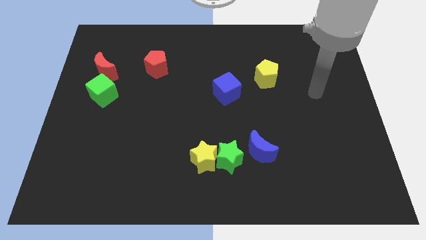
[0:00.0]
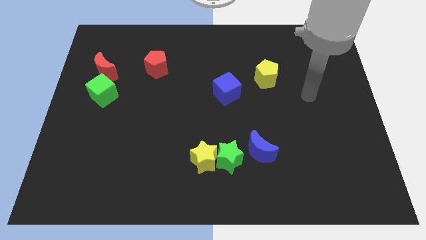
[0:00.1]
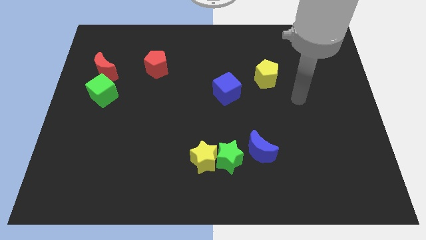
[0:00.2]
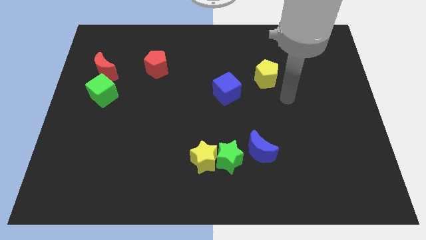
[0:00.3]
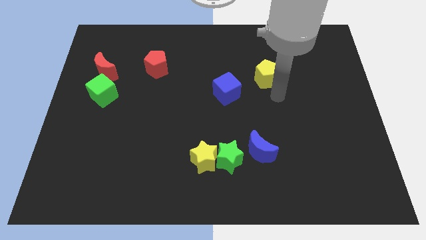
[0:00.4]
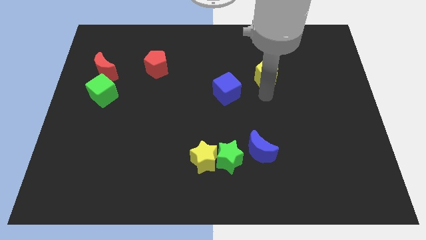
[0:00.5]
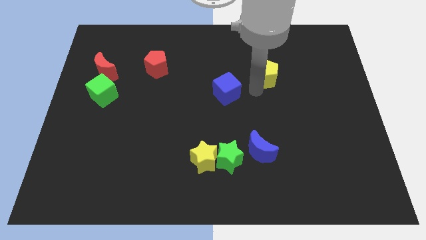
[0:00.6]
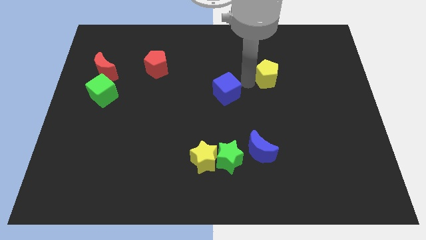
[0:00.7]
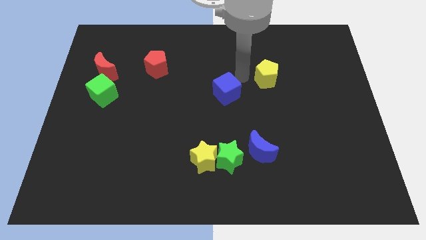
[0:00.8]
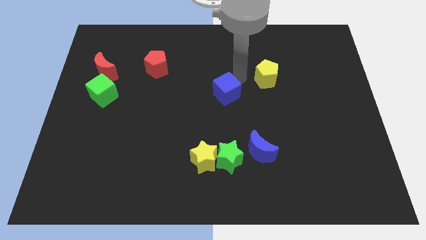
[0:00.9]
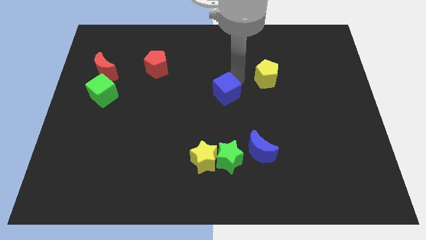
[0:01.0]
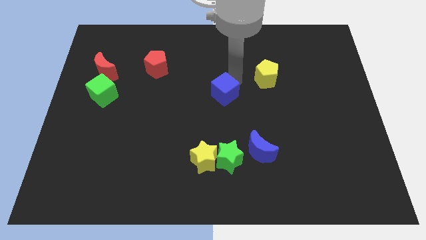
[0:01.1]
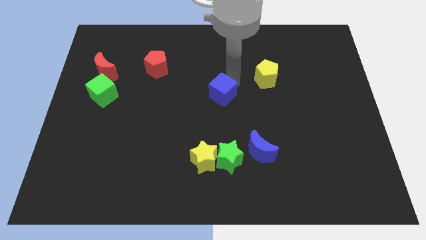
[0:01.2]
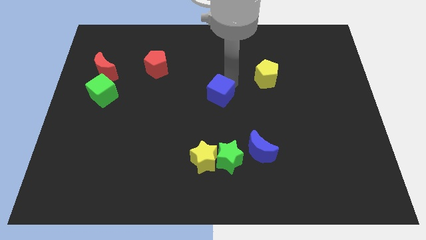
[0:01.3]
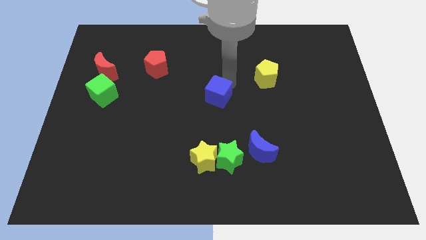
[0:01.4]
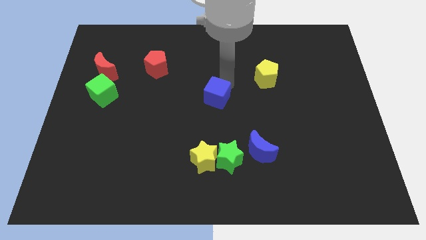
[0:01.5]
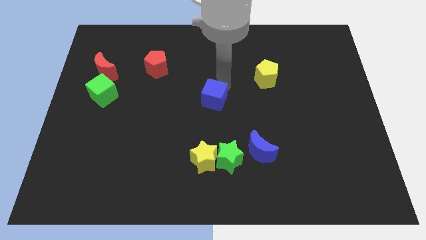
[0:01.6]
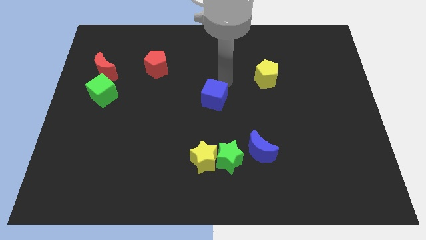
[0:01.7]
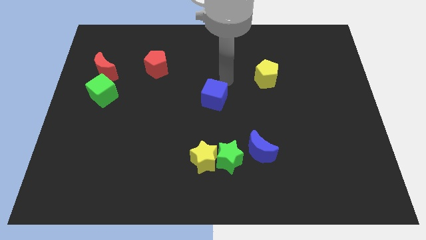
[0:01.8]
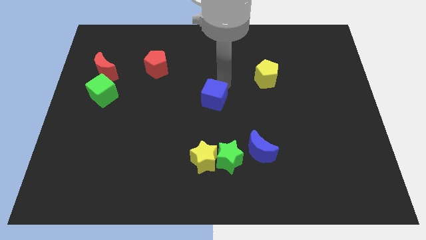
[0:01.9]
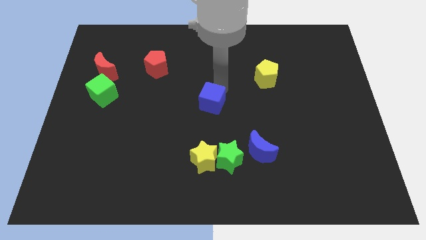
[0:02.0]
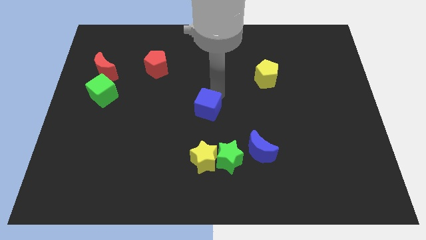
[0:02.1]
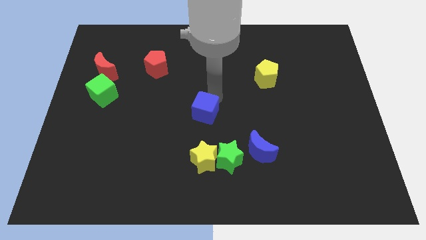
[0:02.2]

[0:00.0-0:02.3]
push the blue cube slightly diagonally down and to the left

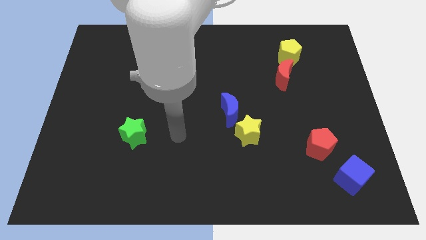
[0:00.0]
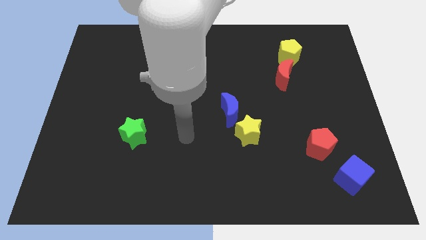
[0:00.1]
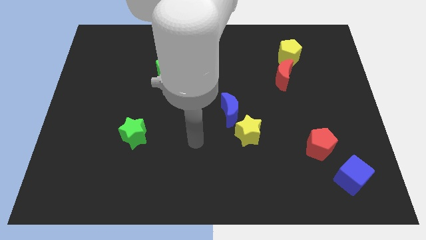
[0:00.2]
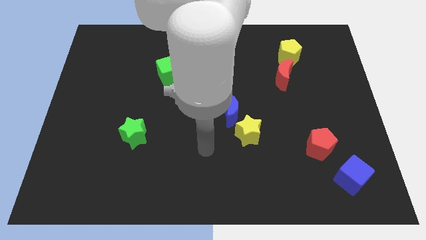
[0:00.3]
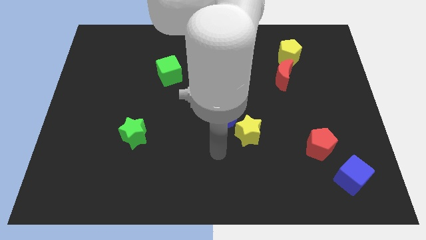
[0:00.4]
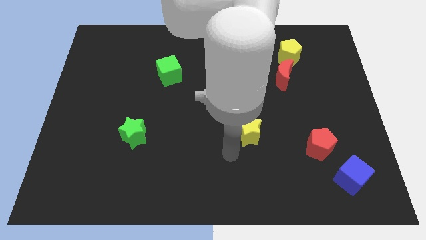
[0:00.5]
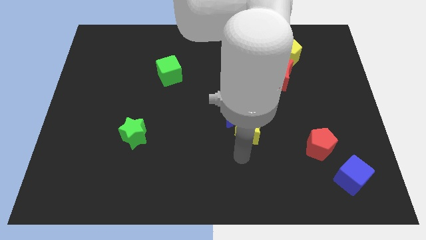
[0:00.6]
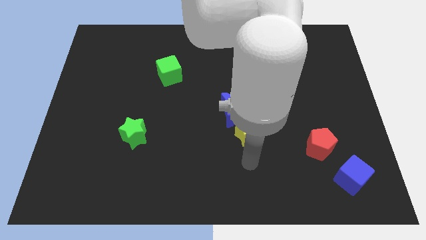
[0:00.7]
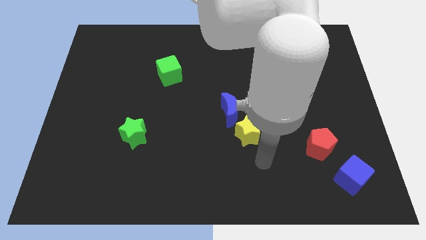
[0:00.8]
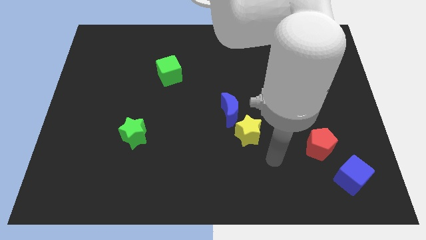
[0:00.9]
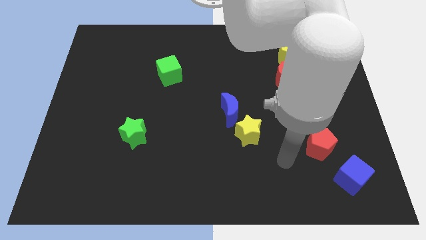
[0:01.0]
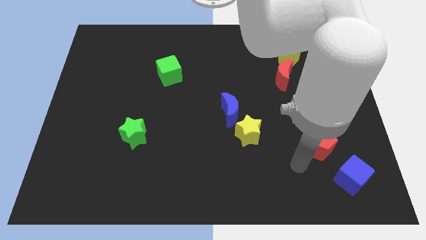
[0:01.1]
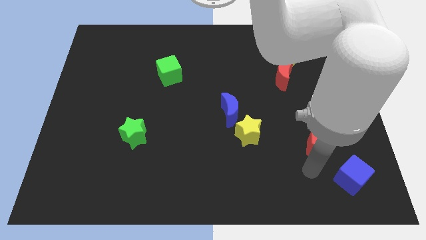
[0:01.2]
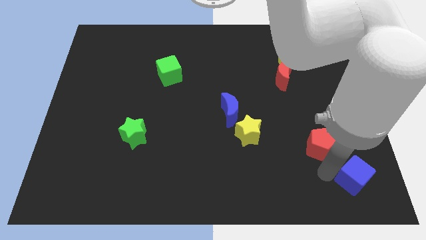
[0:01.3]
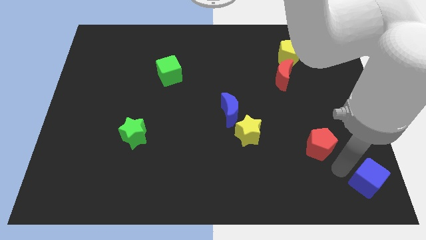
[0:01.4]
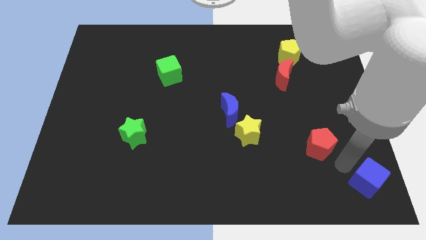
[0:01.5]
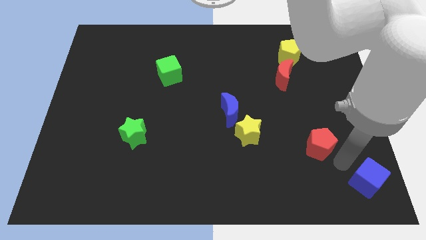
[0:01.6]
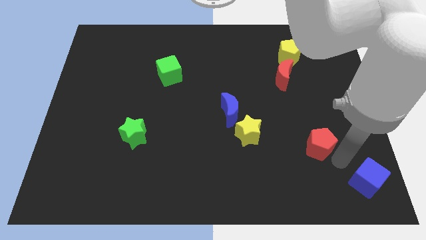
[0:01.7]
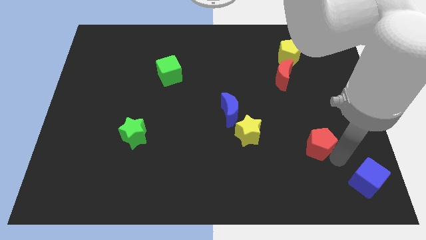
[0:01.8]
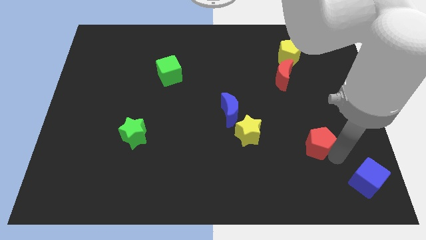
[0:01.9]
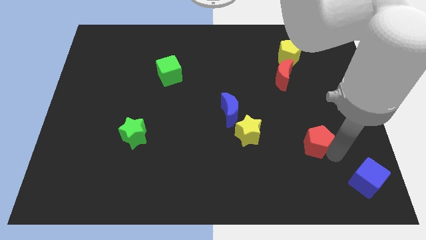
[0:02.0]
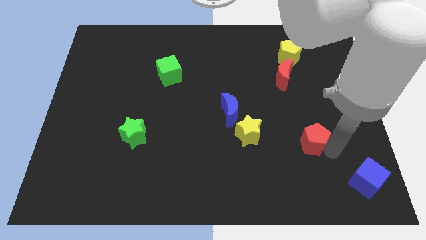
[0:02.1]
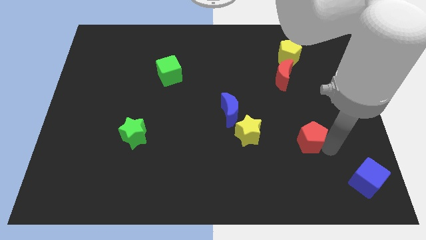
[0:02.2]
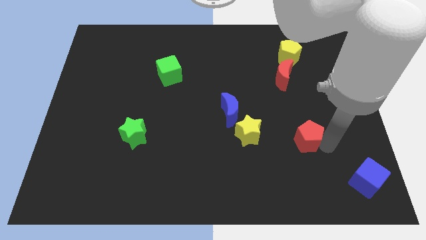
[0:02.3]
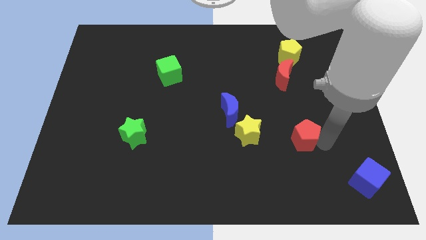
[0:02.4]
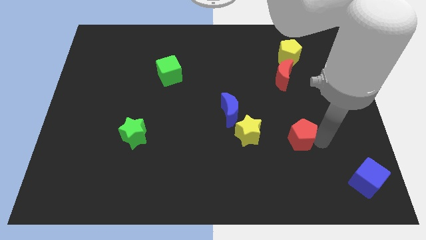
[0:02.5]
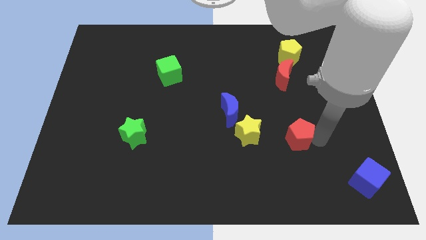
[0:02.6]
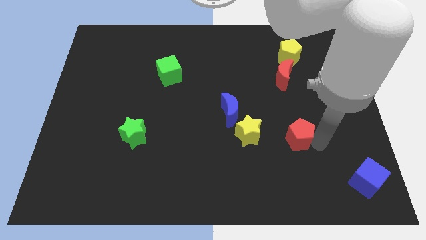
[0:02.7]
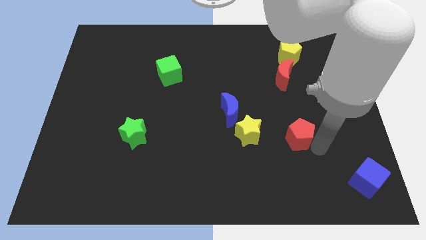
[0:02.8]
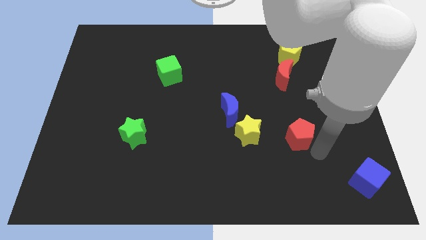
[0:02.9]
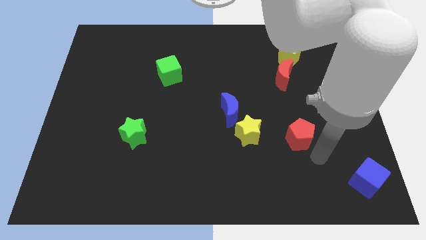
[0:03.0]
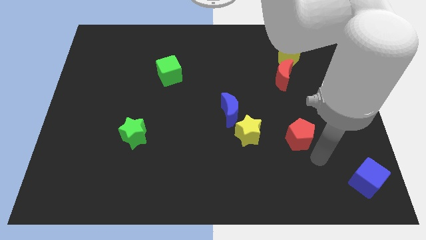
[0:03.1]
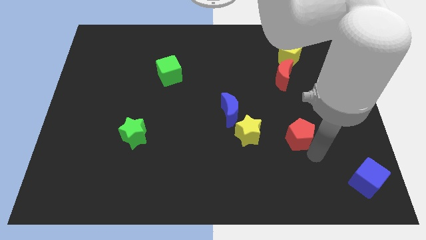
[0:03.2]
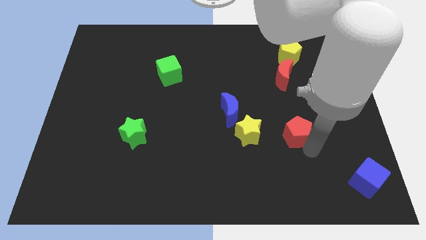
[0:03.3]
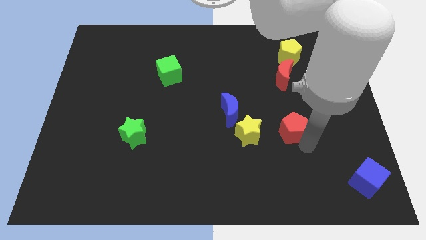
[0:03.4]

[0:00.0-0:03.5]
slightly move the red pentagon up and then to the left

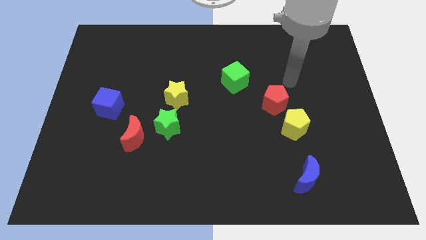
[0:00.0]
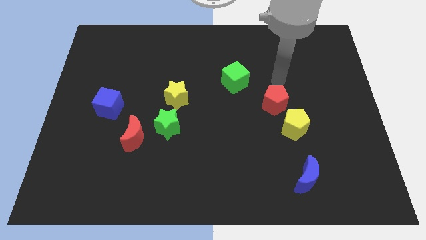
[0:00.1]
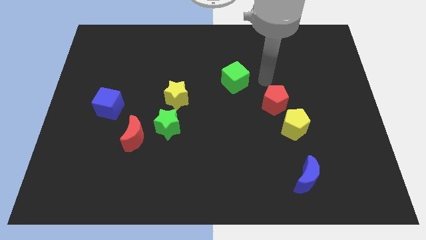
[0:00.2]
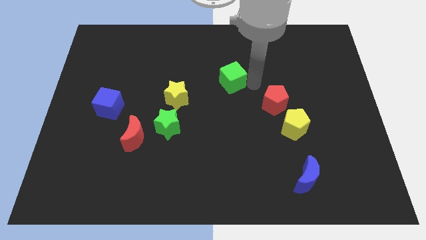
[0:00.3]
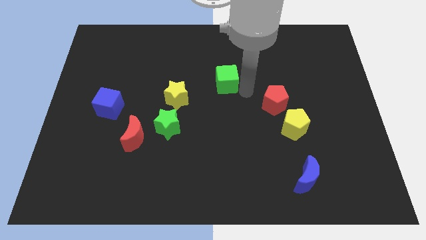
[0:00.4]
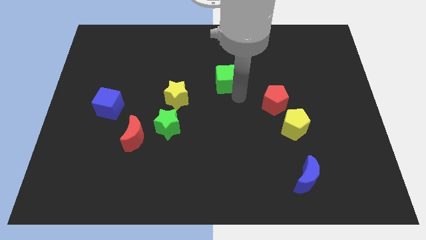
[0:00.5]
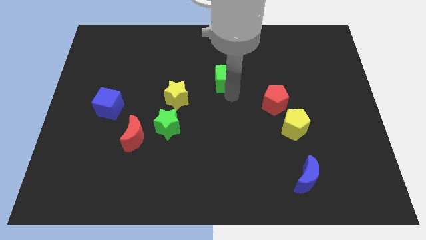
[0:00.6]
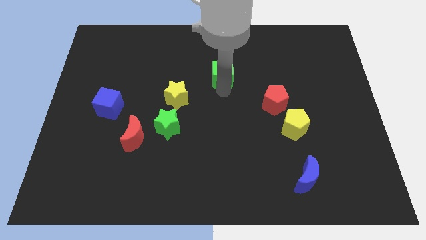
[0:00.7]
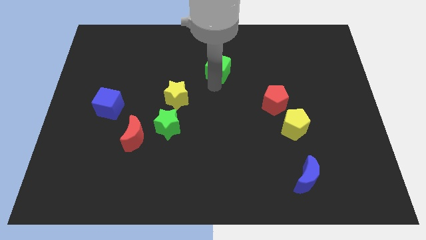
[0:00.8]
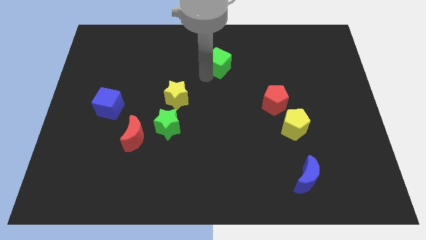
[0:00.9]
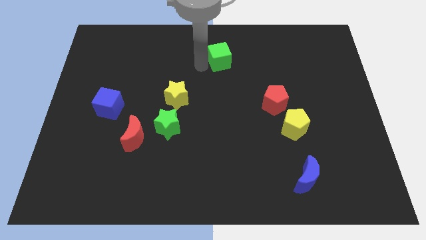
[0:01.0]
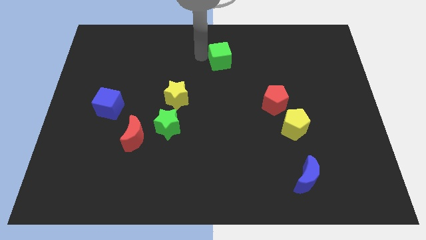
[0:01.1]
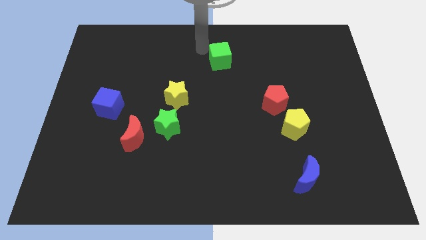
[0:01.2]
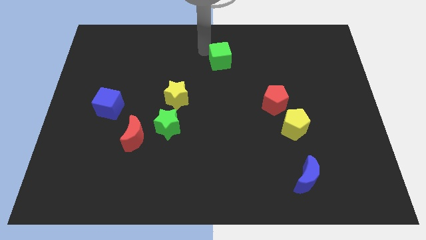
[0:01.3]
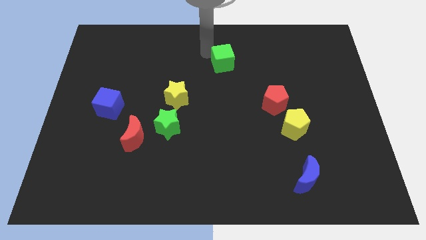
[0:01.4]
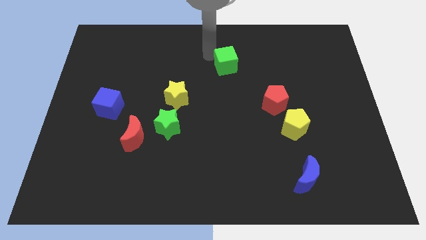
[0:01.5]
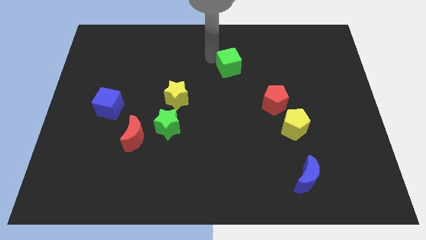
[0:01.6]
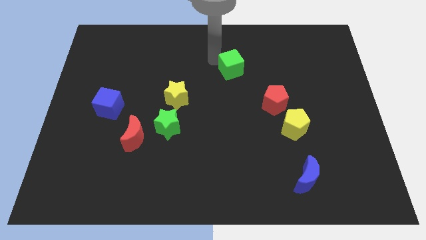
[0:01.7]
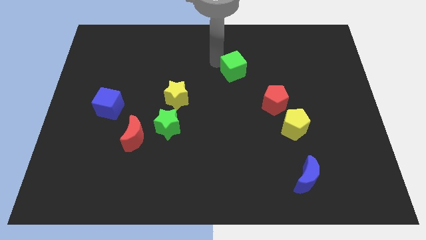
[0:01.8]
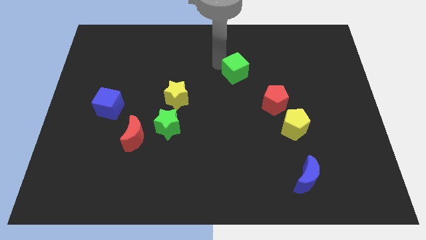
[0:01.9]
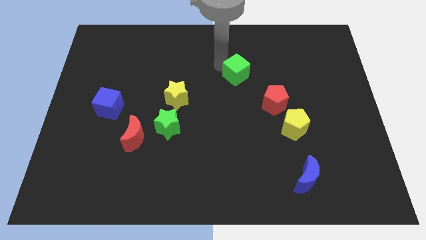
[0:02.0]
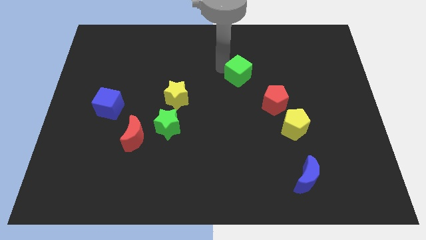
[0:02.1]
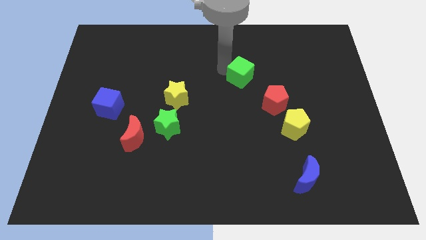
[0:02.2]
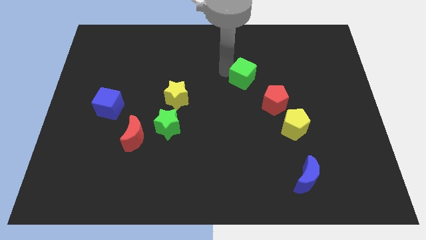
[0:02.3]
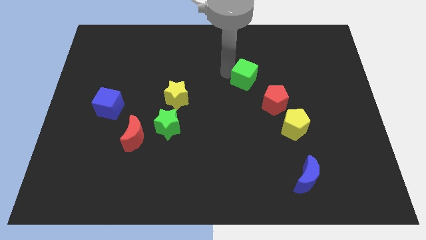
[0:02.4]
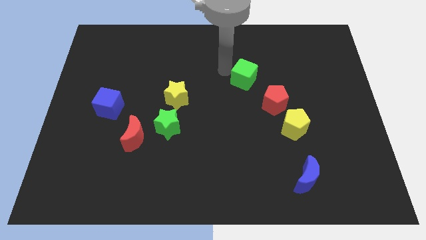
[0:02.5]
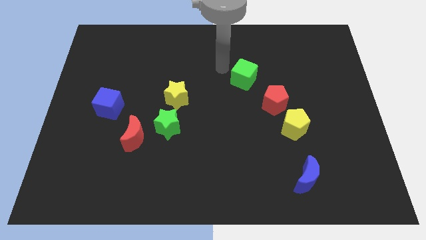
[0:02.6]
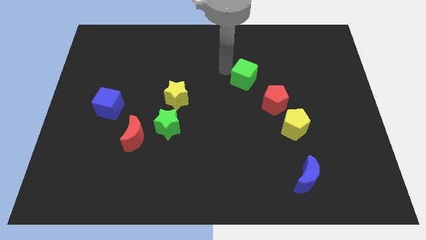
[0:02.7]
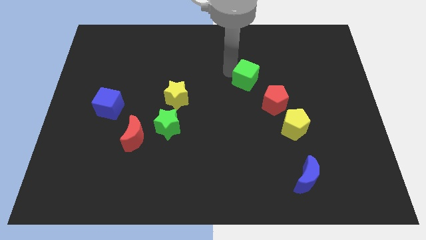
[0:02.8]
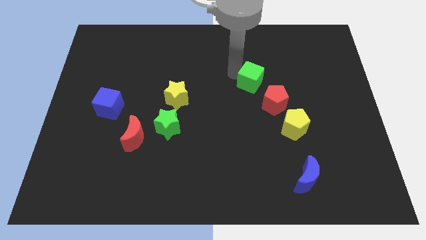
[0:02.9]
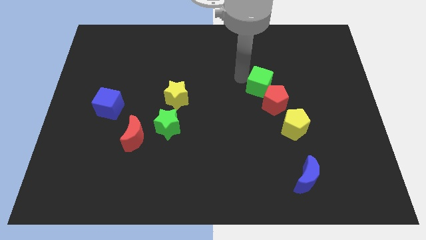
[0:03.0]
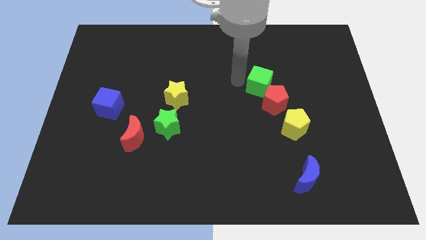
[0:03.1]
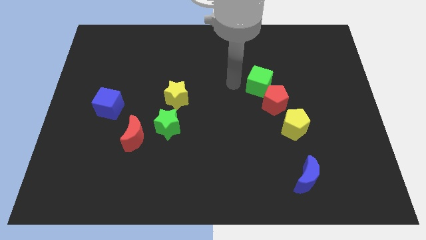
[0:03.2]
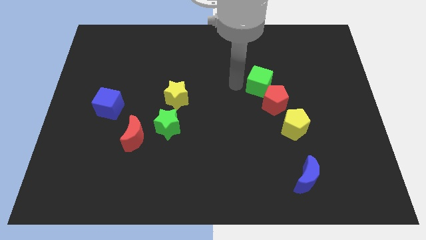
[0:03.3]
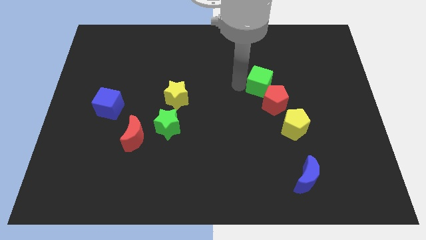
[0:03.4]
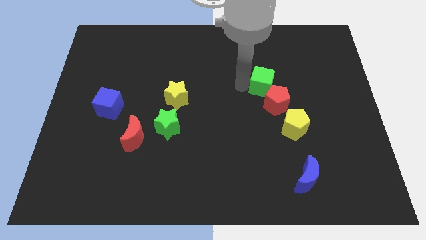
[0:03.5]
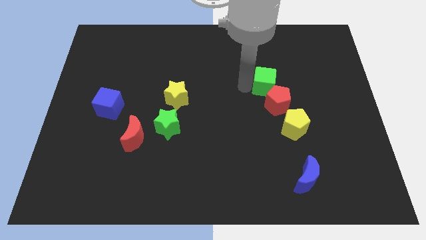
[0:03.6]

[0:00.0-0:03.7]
move the green cube a little bit to the right
